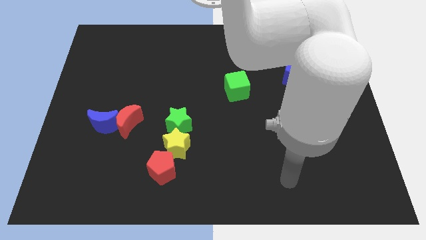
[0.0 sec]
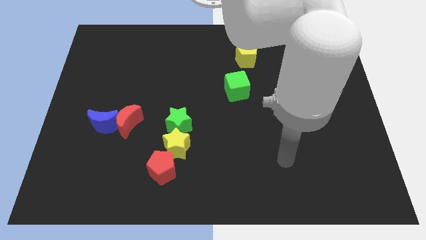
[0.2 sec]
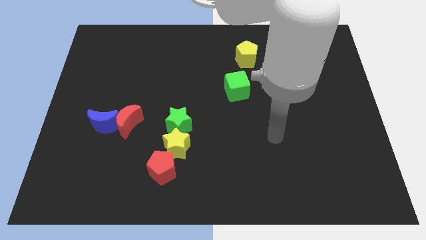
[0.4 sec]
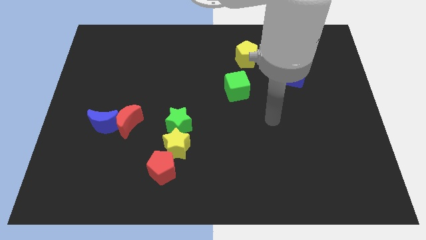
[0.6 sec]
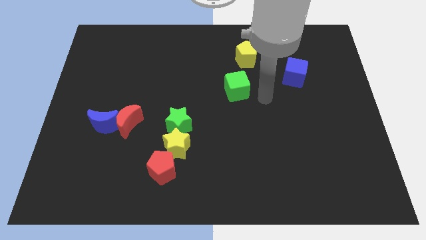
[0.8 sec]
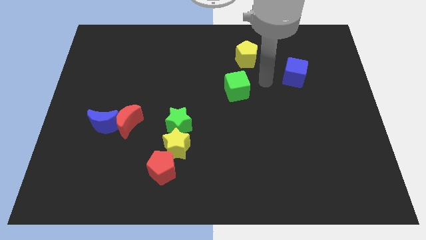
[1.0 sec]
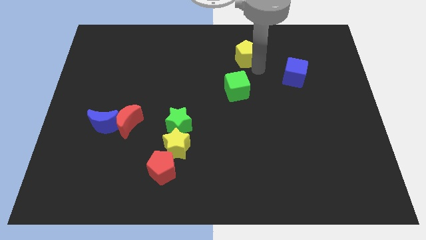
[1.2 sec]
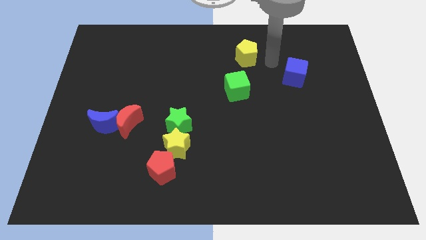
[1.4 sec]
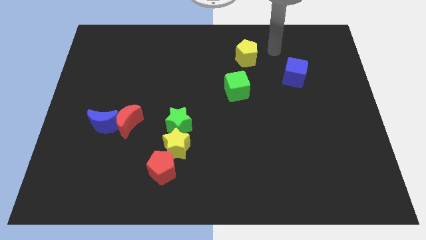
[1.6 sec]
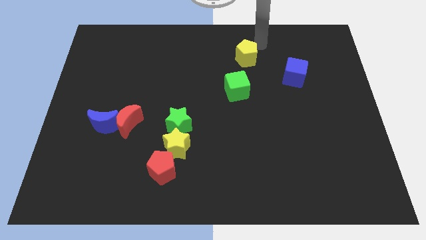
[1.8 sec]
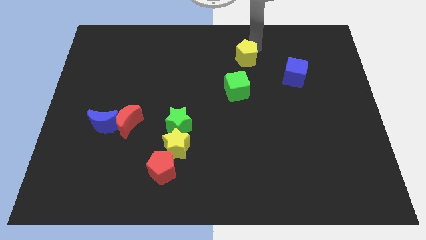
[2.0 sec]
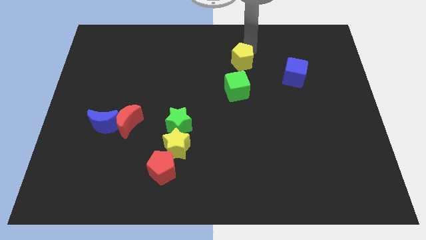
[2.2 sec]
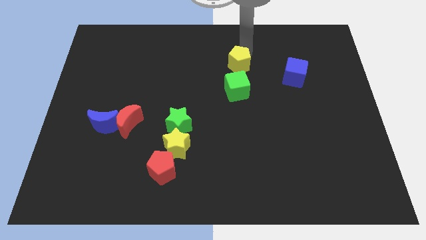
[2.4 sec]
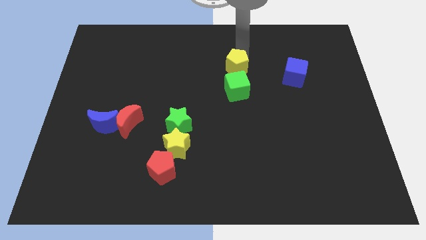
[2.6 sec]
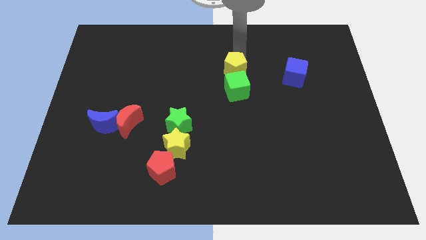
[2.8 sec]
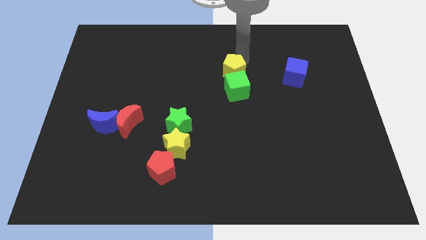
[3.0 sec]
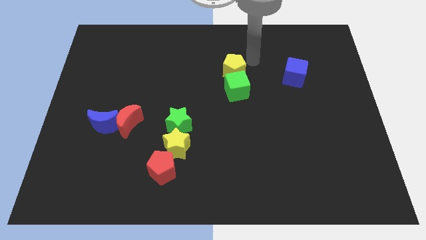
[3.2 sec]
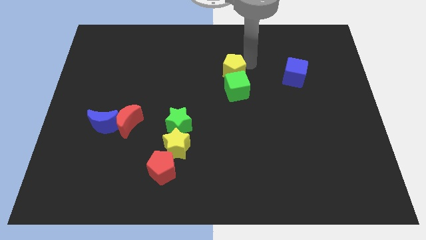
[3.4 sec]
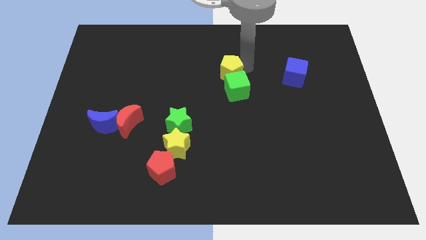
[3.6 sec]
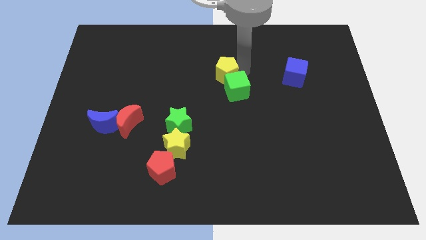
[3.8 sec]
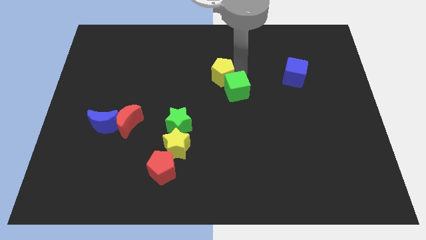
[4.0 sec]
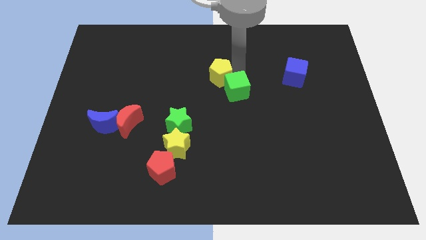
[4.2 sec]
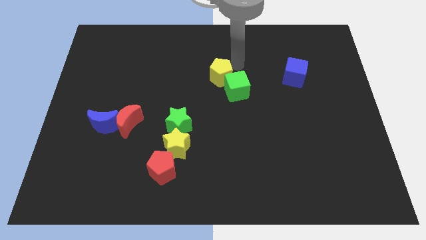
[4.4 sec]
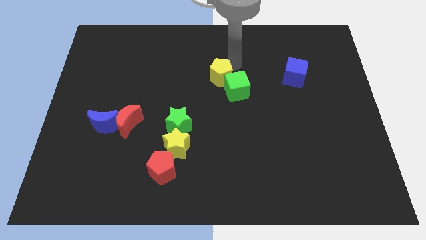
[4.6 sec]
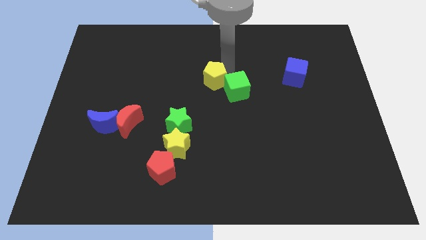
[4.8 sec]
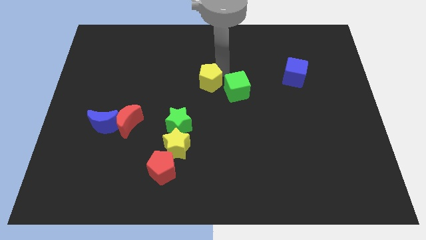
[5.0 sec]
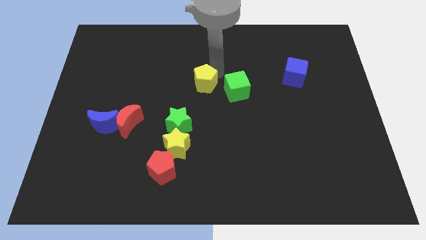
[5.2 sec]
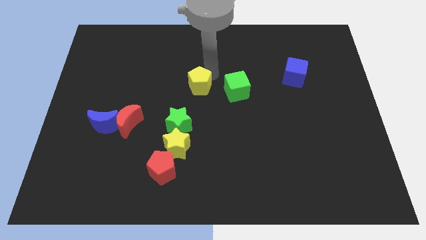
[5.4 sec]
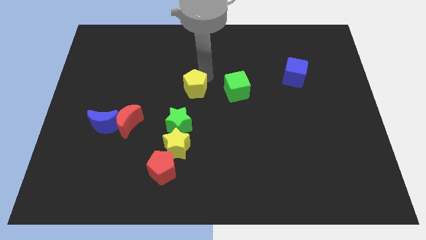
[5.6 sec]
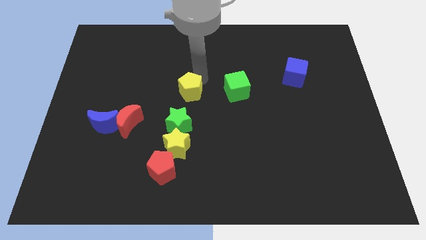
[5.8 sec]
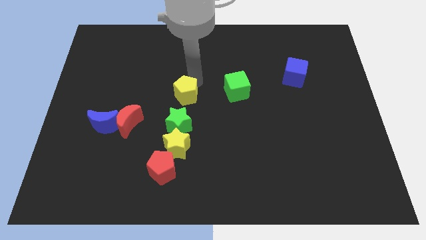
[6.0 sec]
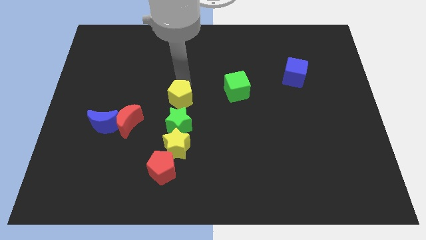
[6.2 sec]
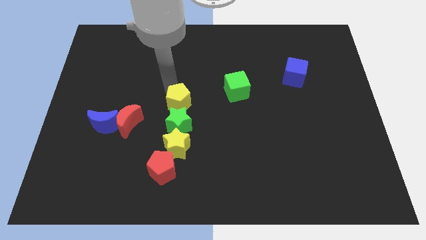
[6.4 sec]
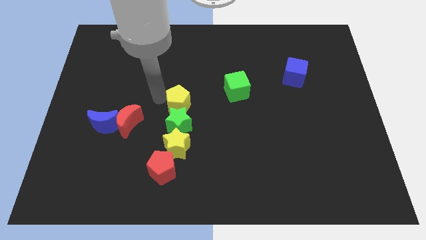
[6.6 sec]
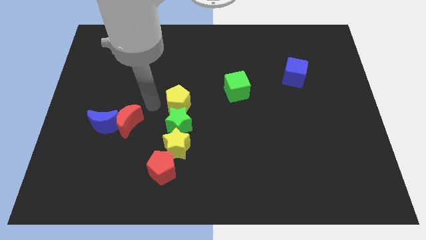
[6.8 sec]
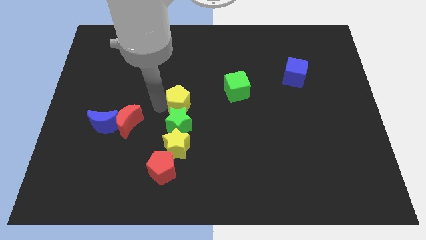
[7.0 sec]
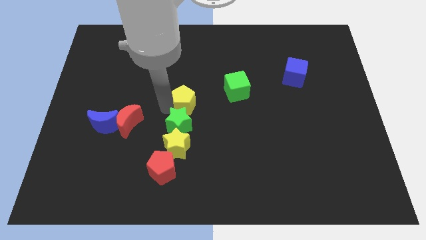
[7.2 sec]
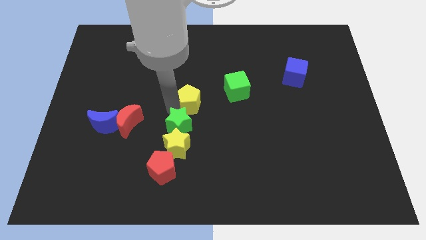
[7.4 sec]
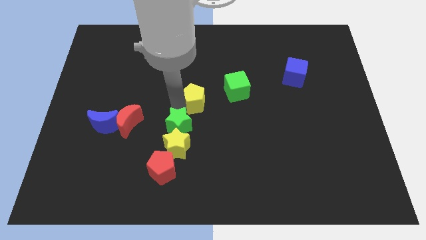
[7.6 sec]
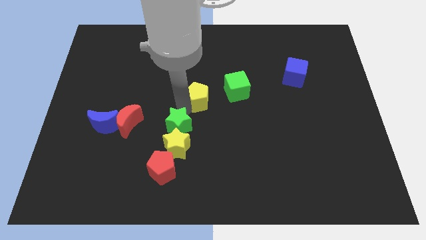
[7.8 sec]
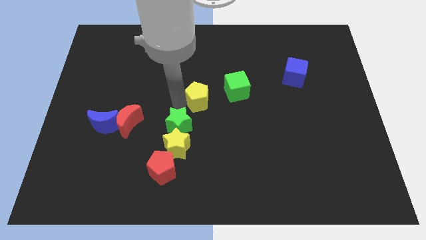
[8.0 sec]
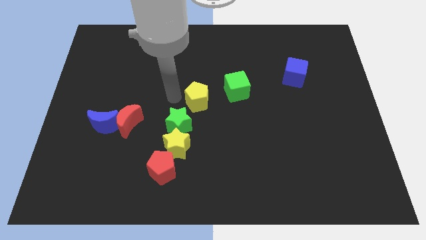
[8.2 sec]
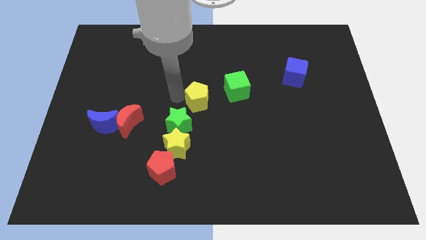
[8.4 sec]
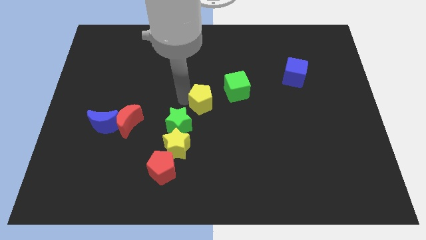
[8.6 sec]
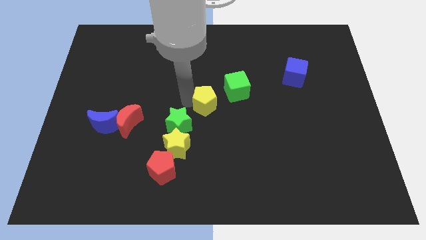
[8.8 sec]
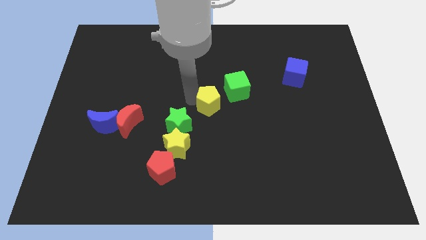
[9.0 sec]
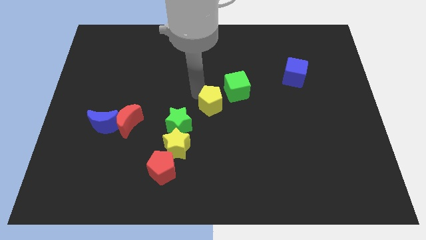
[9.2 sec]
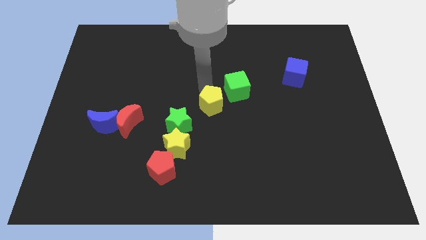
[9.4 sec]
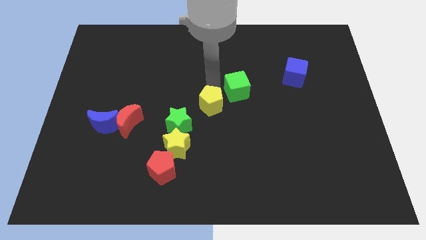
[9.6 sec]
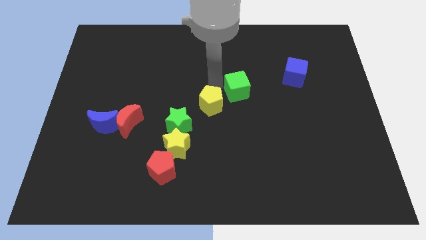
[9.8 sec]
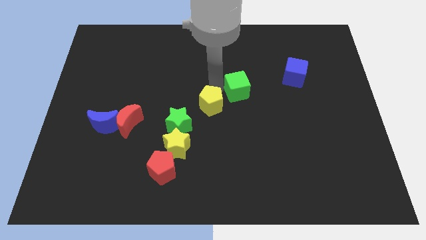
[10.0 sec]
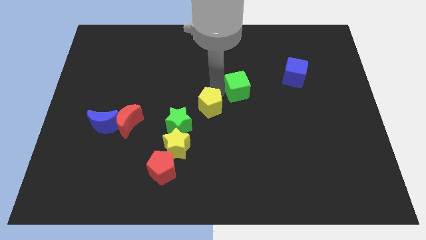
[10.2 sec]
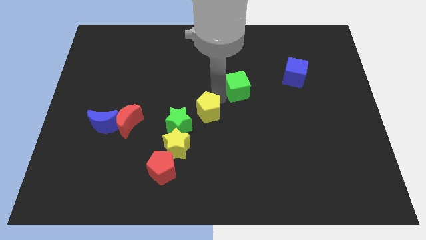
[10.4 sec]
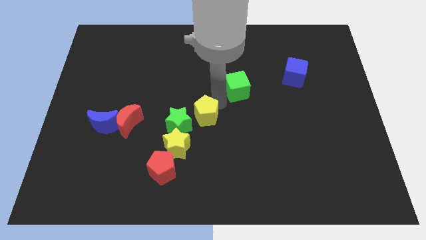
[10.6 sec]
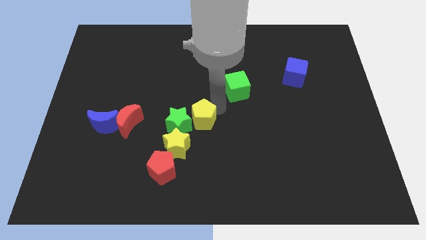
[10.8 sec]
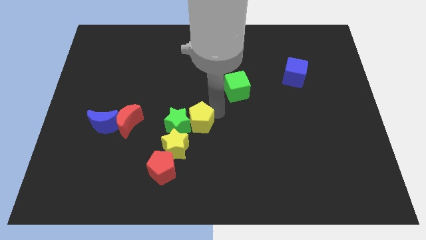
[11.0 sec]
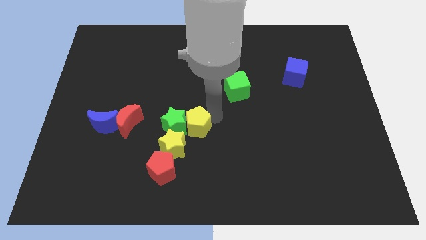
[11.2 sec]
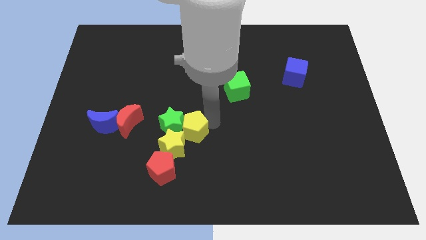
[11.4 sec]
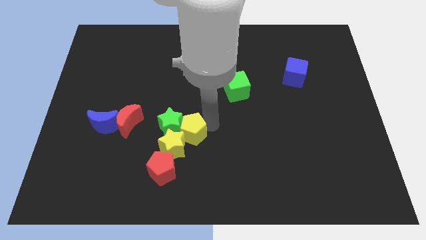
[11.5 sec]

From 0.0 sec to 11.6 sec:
slide the yellow pentagon towards the yellow star

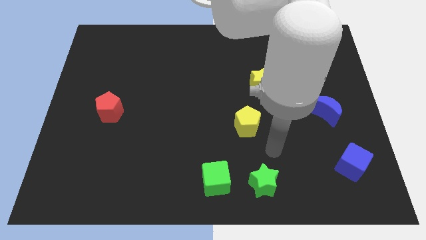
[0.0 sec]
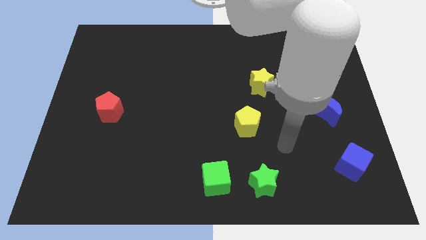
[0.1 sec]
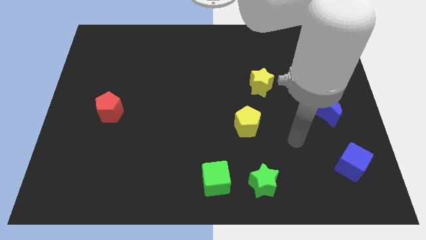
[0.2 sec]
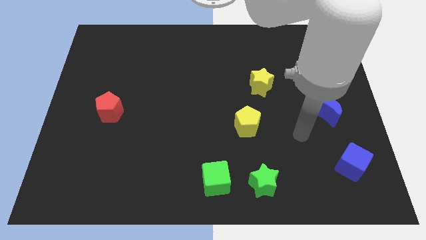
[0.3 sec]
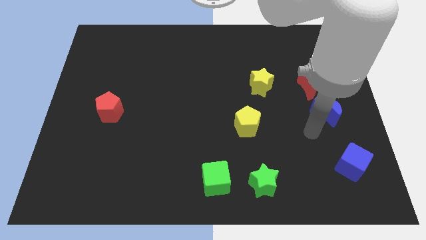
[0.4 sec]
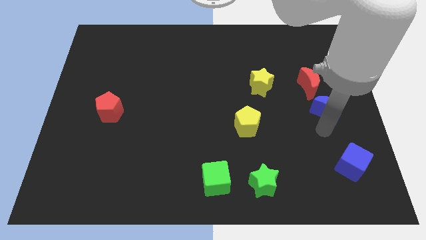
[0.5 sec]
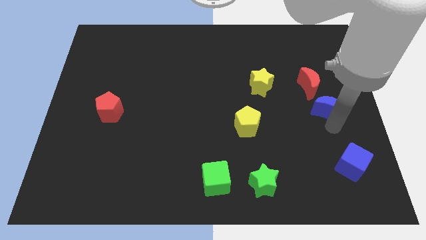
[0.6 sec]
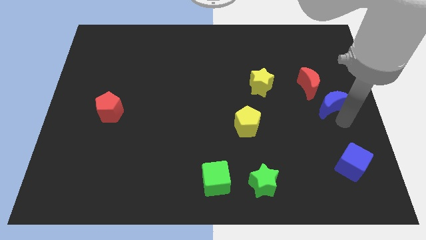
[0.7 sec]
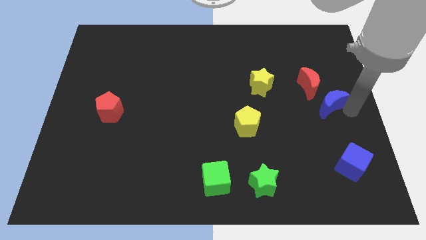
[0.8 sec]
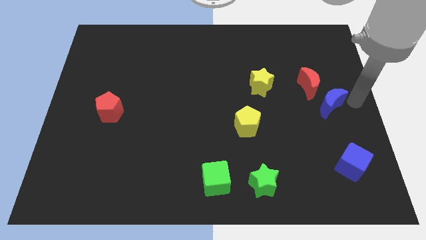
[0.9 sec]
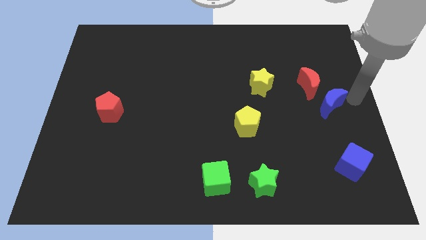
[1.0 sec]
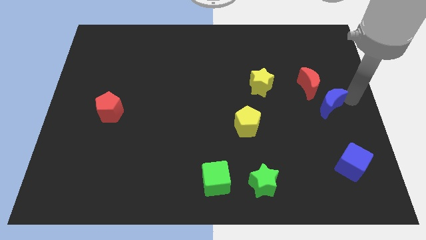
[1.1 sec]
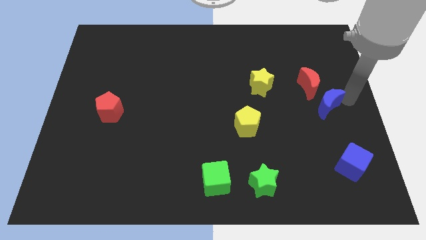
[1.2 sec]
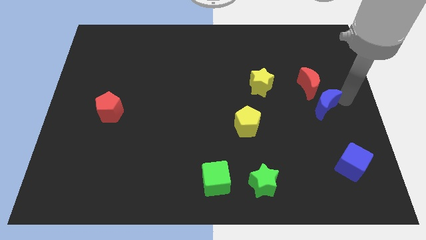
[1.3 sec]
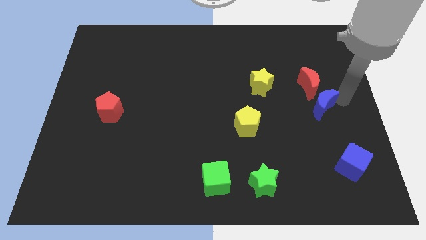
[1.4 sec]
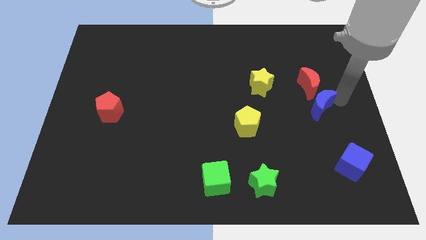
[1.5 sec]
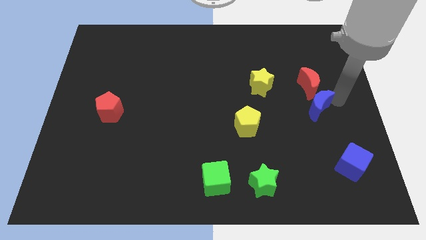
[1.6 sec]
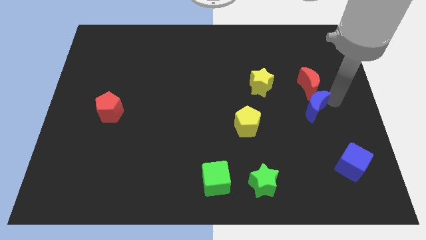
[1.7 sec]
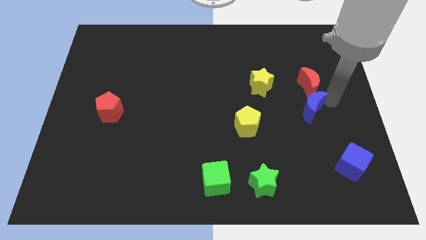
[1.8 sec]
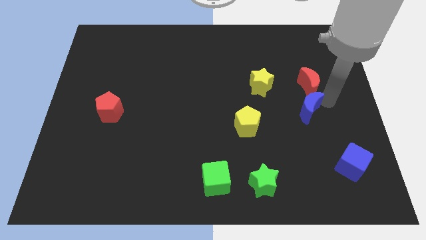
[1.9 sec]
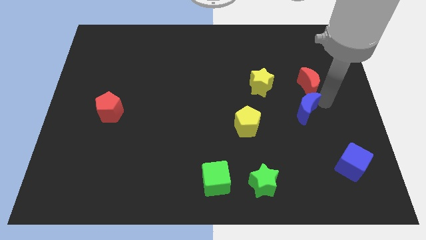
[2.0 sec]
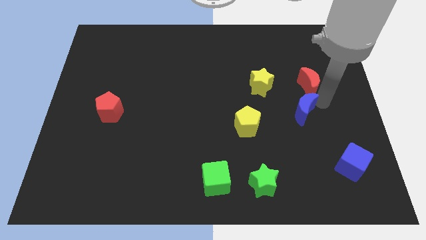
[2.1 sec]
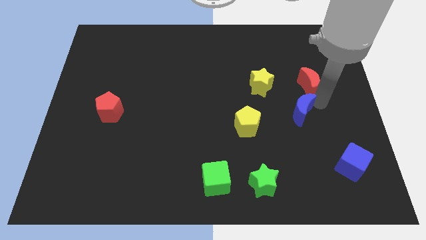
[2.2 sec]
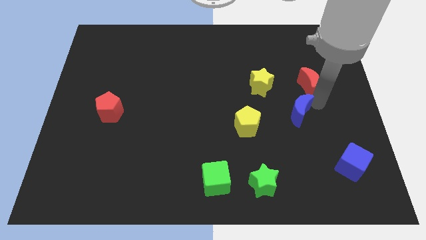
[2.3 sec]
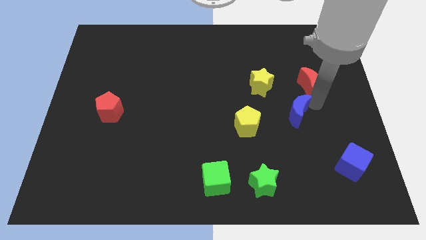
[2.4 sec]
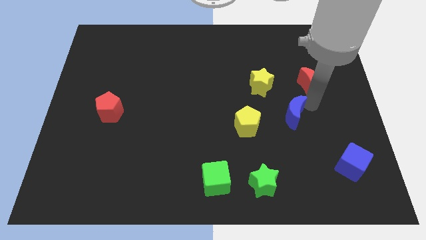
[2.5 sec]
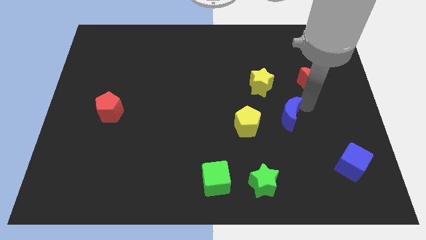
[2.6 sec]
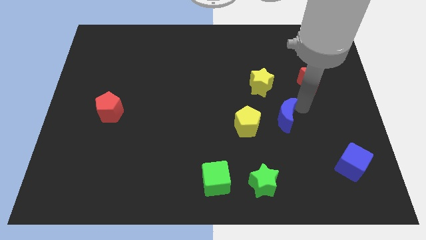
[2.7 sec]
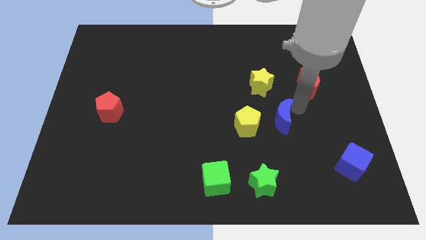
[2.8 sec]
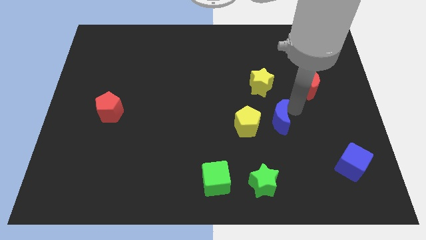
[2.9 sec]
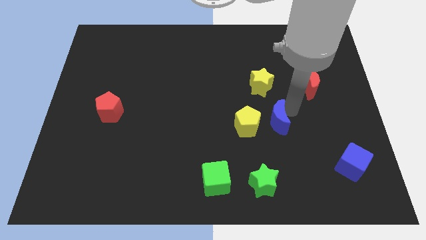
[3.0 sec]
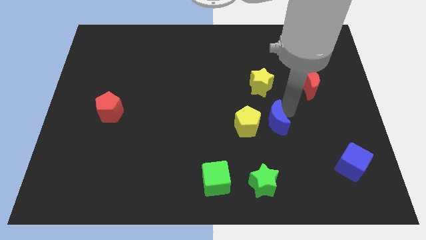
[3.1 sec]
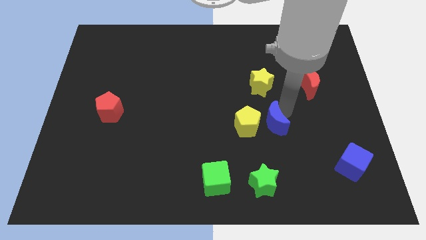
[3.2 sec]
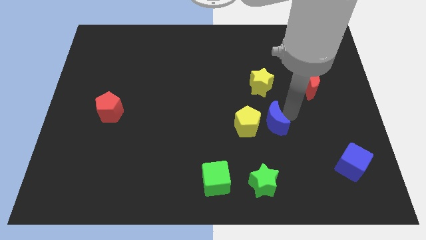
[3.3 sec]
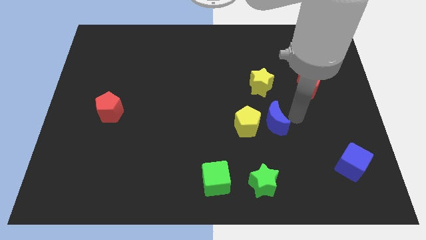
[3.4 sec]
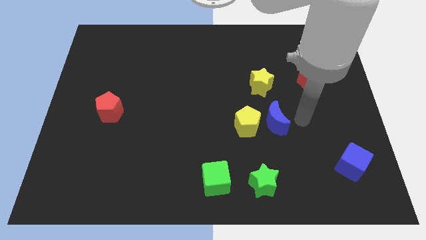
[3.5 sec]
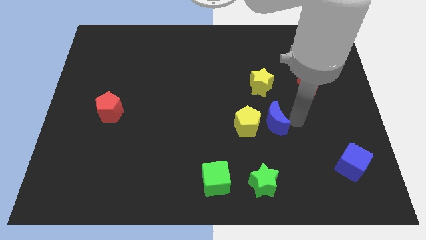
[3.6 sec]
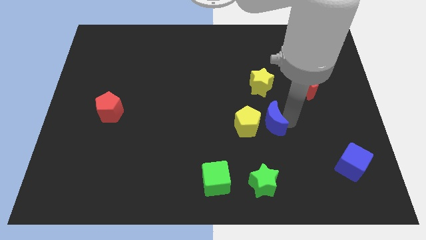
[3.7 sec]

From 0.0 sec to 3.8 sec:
put the blue moon close to the yellow pentagon
